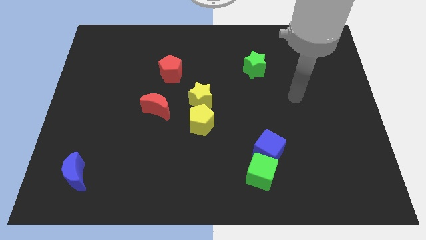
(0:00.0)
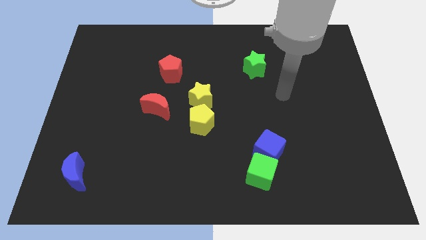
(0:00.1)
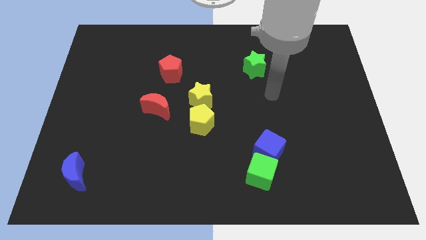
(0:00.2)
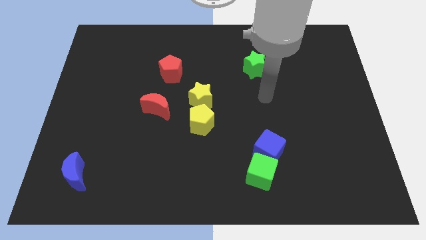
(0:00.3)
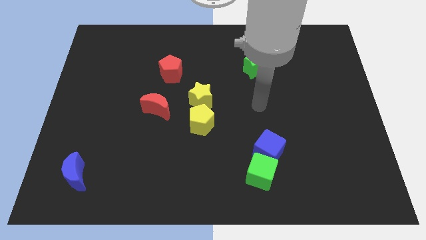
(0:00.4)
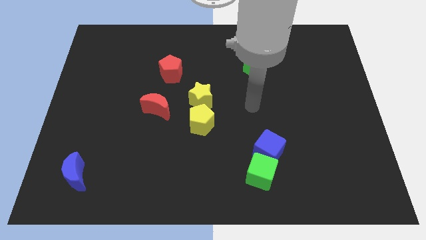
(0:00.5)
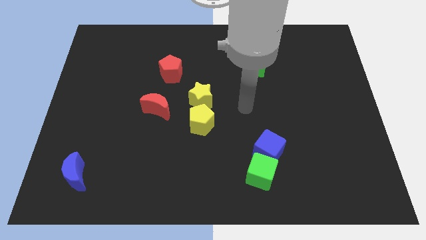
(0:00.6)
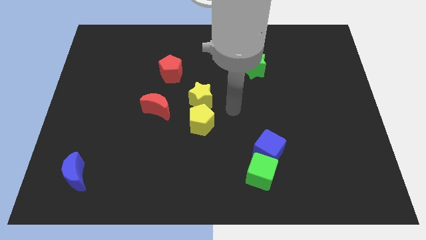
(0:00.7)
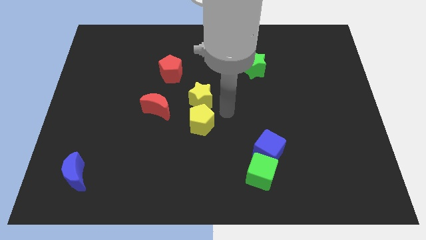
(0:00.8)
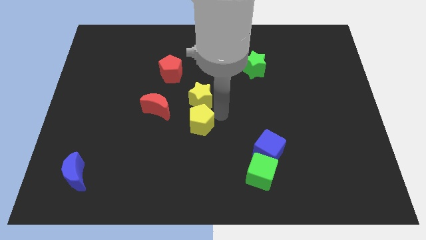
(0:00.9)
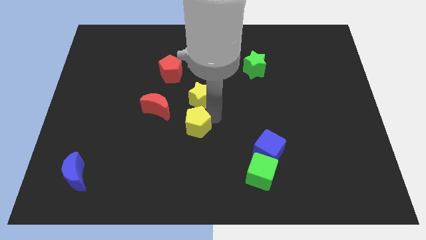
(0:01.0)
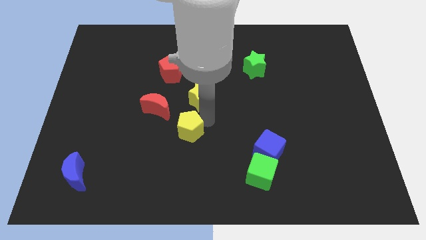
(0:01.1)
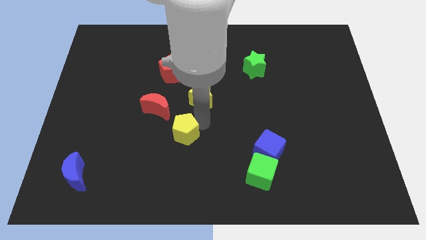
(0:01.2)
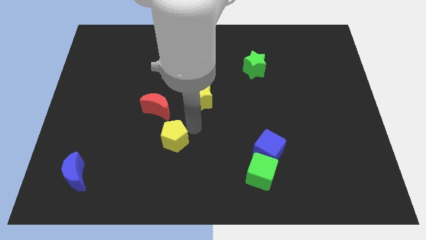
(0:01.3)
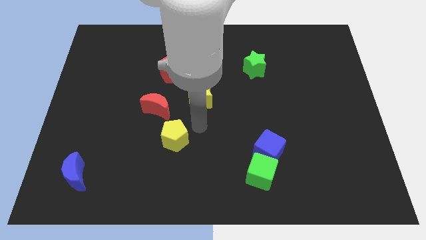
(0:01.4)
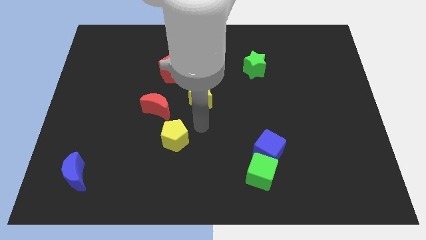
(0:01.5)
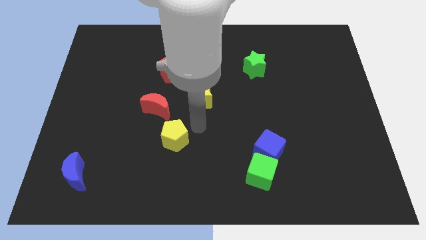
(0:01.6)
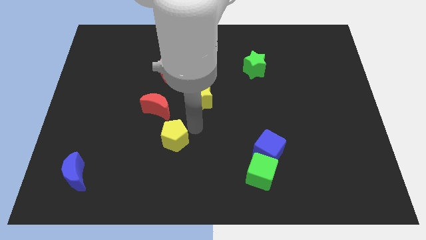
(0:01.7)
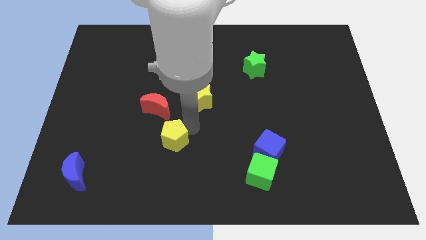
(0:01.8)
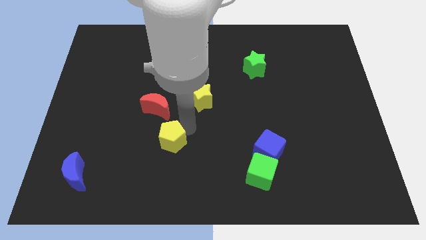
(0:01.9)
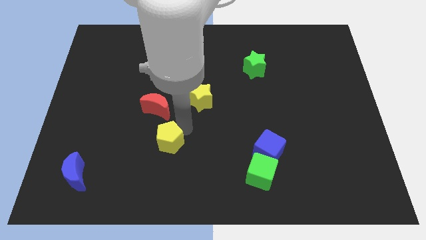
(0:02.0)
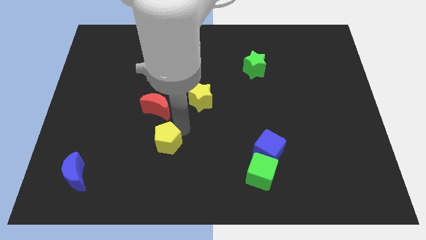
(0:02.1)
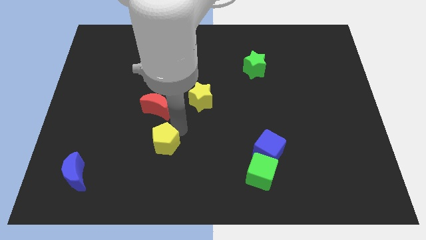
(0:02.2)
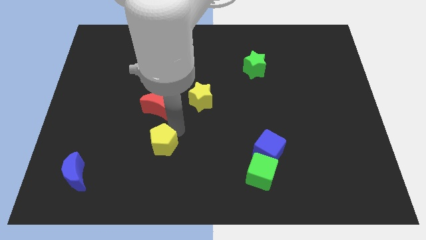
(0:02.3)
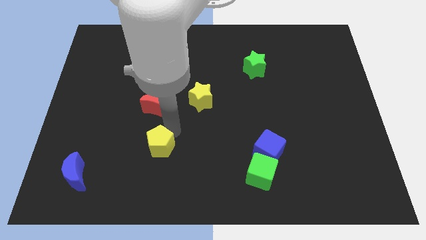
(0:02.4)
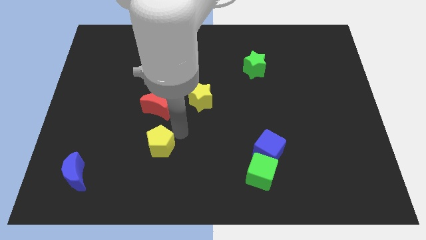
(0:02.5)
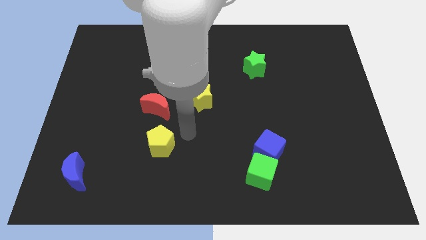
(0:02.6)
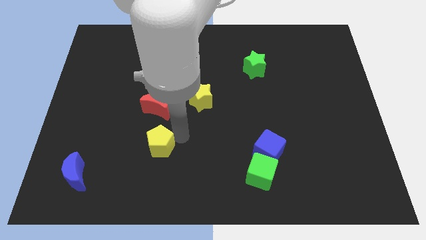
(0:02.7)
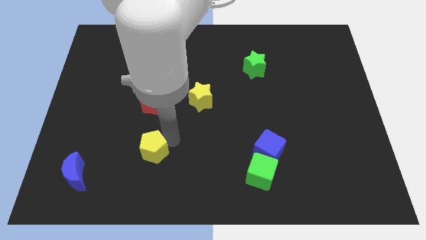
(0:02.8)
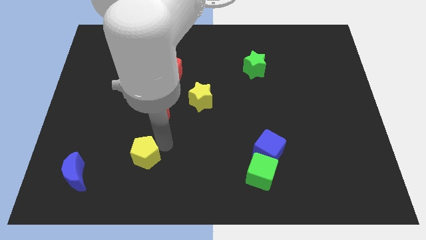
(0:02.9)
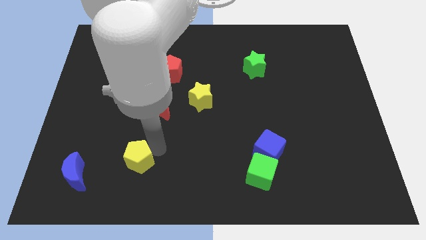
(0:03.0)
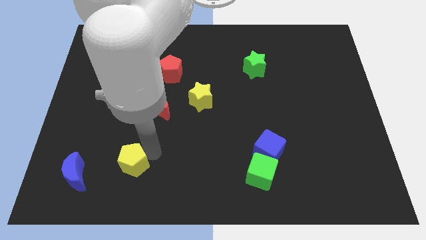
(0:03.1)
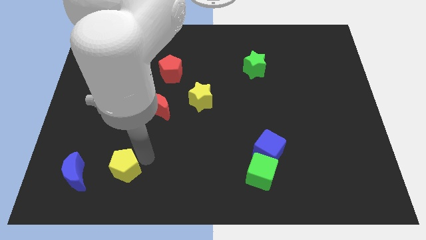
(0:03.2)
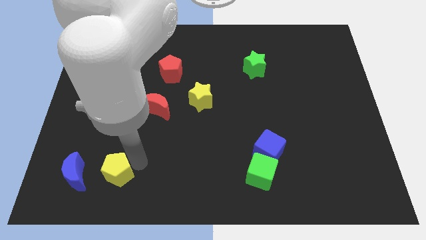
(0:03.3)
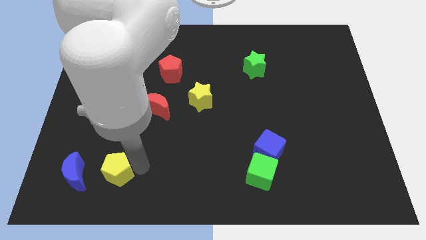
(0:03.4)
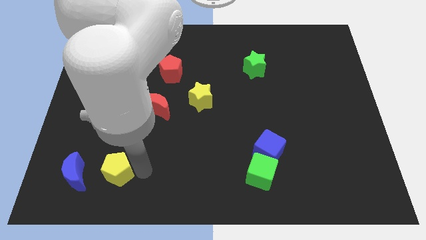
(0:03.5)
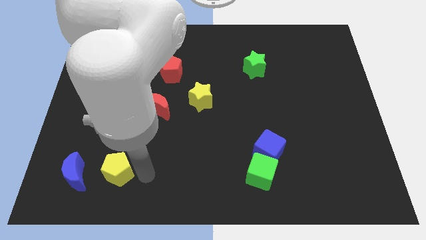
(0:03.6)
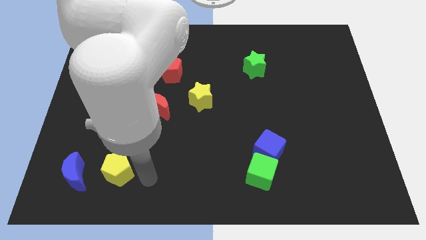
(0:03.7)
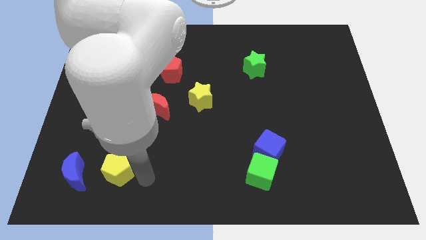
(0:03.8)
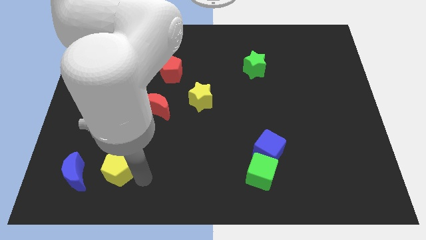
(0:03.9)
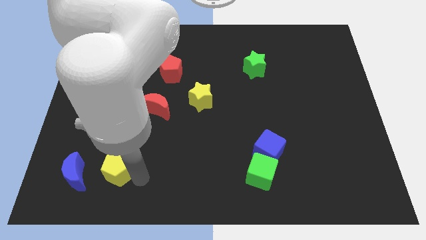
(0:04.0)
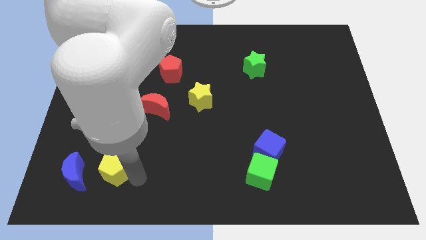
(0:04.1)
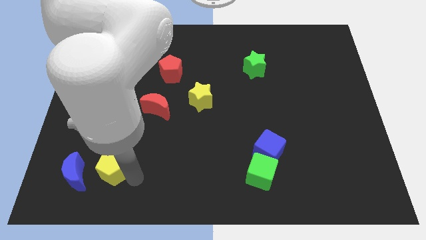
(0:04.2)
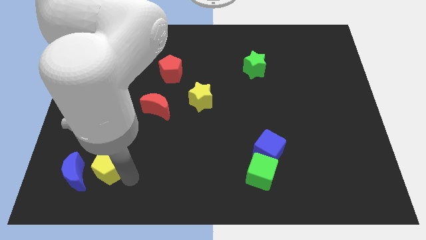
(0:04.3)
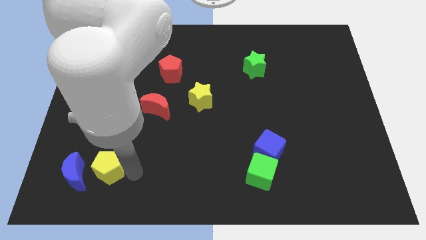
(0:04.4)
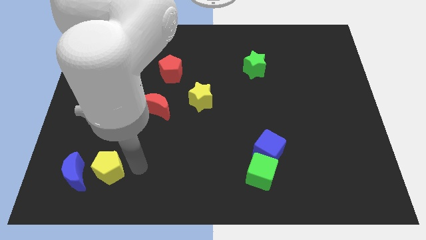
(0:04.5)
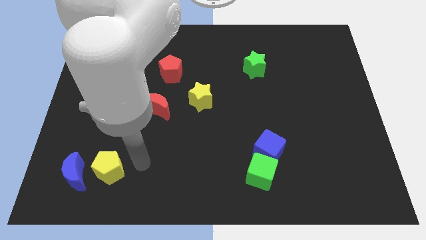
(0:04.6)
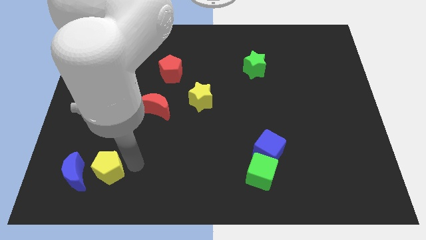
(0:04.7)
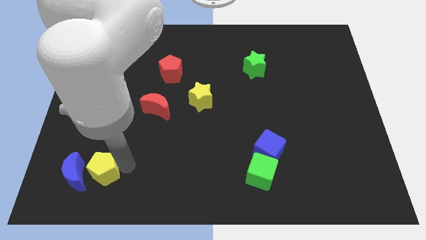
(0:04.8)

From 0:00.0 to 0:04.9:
put the yellow pentagon close to the blue moon

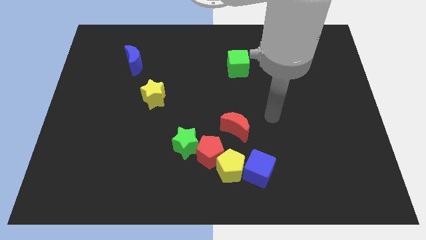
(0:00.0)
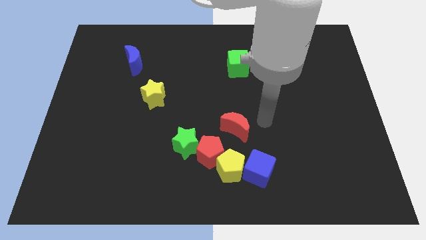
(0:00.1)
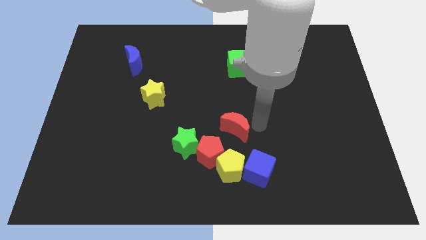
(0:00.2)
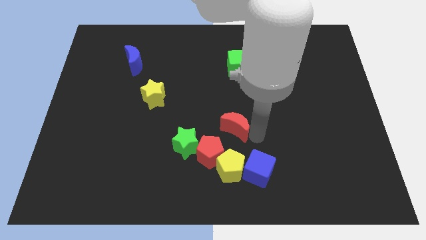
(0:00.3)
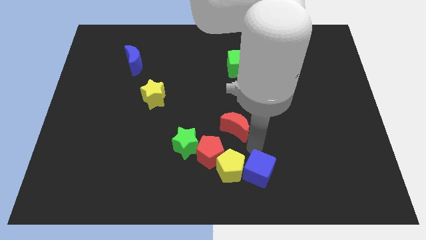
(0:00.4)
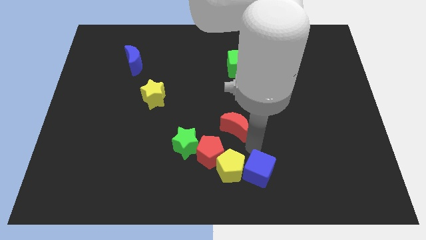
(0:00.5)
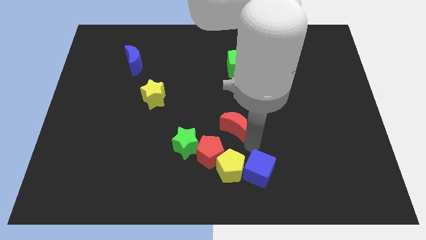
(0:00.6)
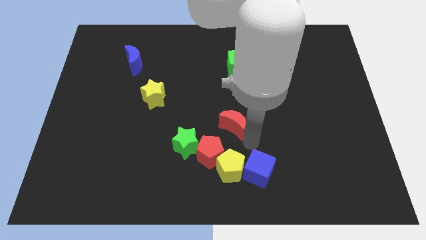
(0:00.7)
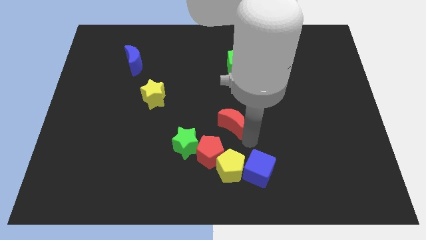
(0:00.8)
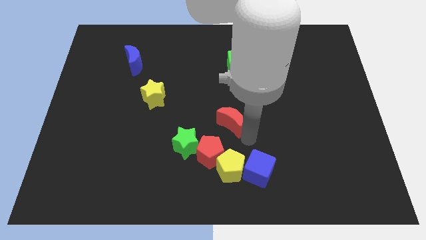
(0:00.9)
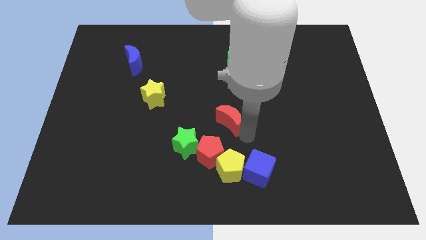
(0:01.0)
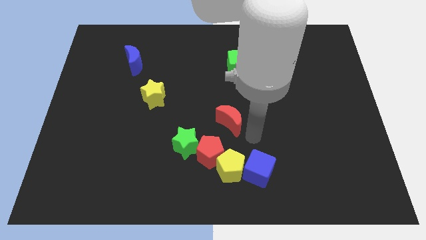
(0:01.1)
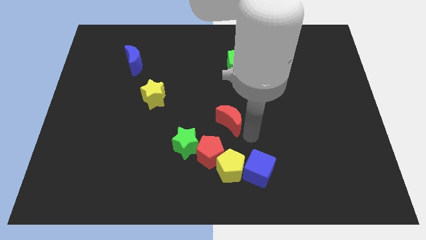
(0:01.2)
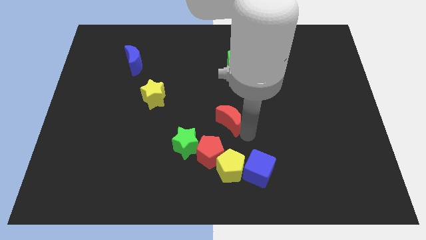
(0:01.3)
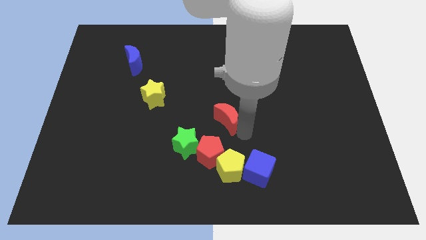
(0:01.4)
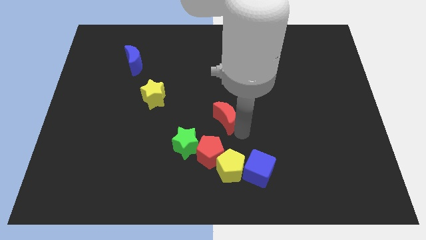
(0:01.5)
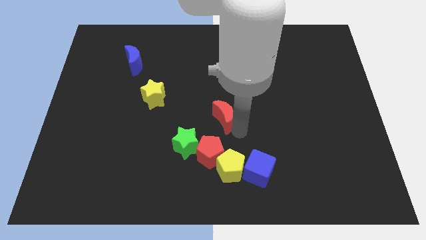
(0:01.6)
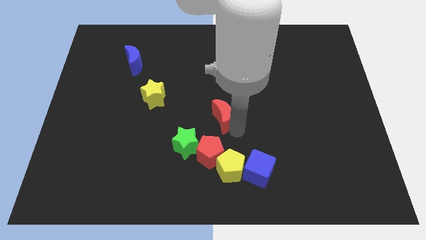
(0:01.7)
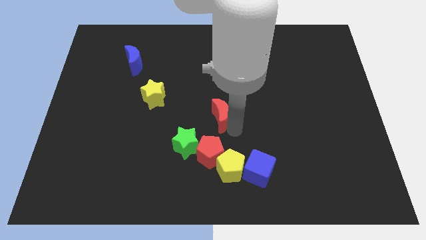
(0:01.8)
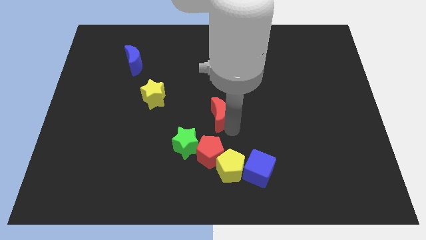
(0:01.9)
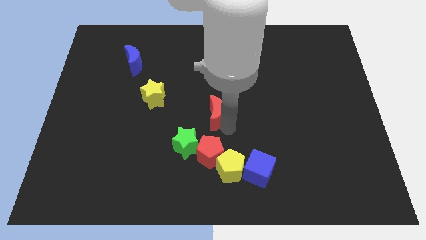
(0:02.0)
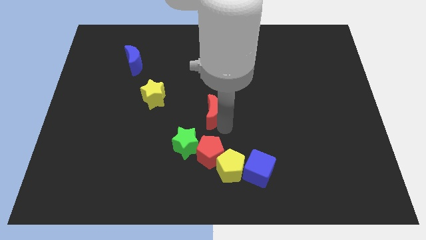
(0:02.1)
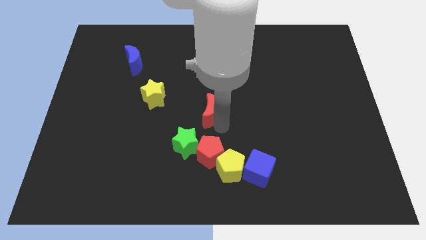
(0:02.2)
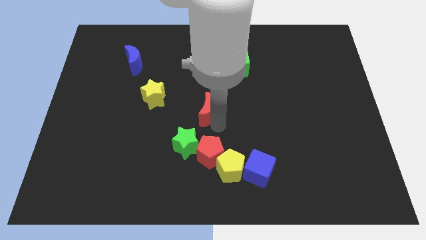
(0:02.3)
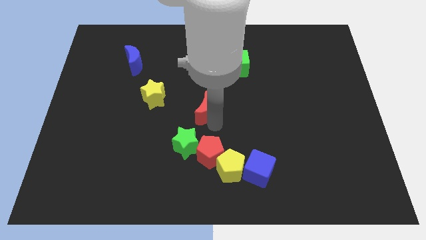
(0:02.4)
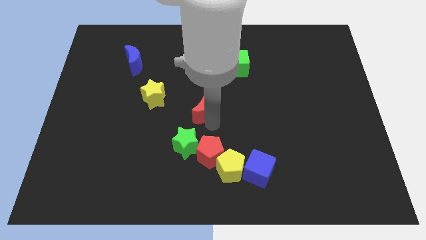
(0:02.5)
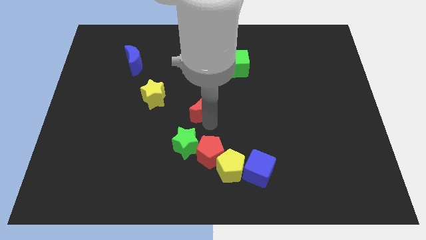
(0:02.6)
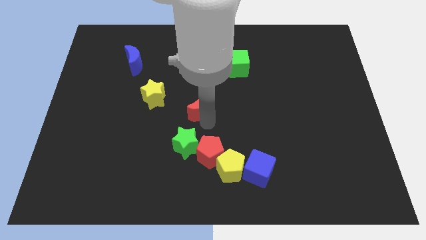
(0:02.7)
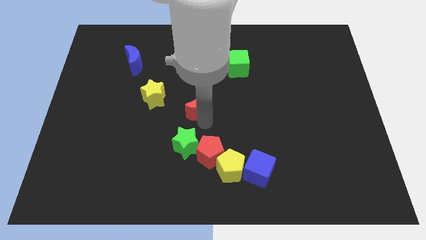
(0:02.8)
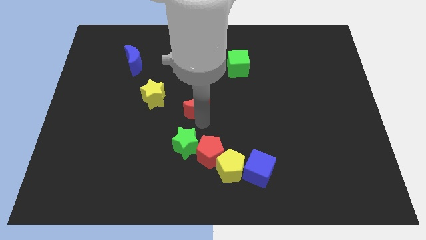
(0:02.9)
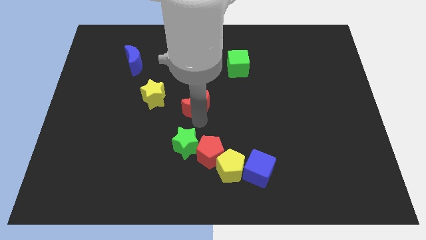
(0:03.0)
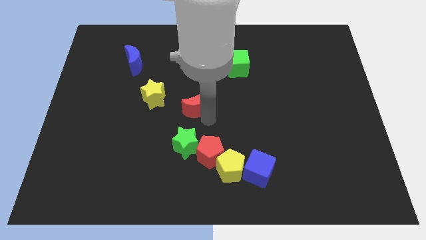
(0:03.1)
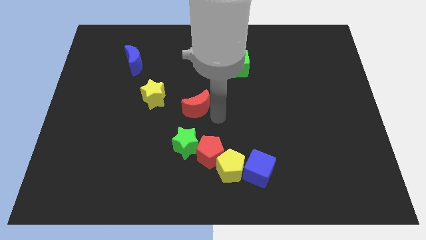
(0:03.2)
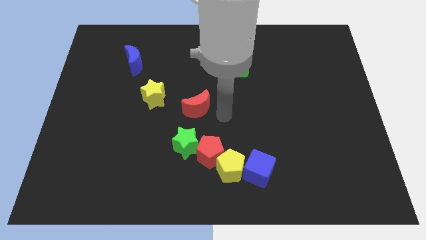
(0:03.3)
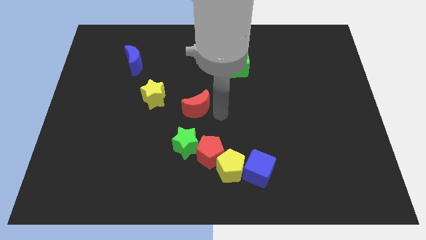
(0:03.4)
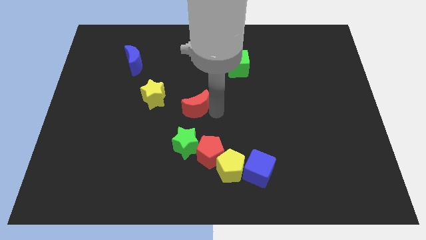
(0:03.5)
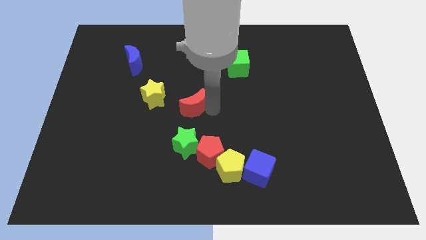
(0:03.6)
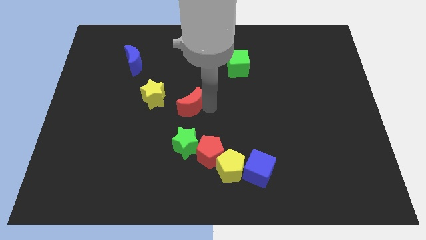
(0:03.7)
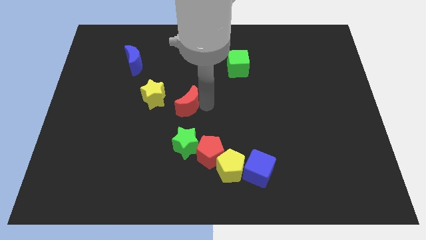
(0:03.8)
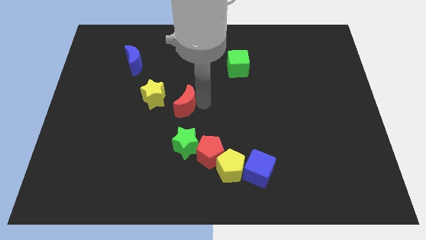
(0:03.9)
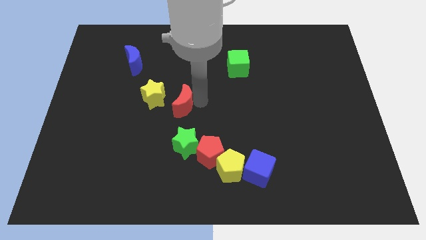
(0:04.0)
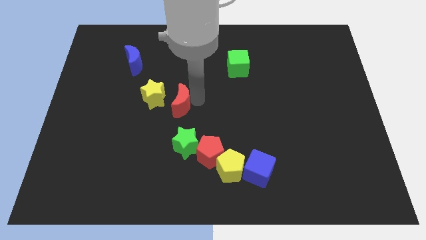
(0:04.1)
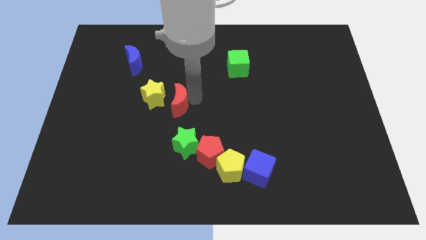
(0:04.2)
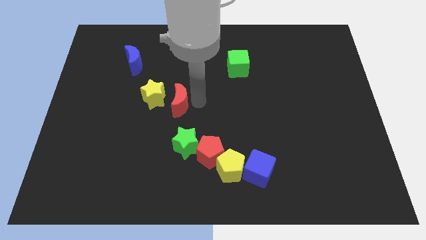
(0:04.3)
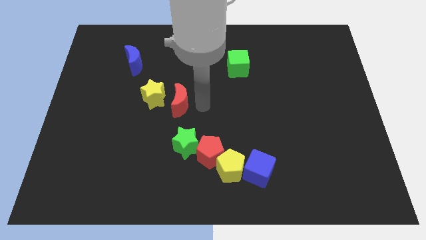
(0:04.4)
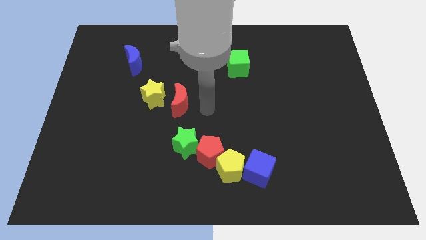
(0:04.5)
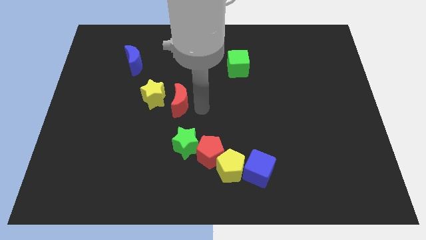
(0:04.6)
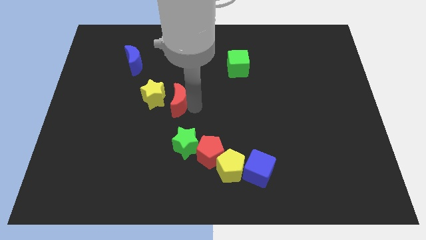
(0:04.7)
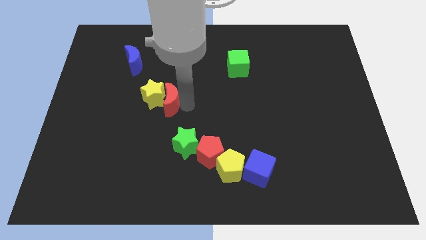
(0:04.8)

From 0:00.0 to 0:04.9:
put the red moon to the yellow star
